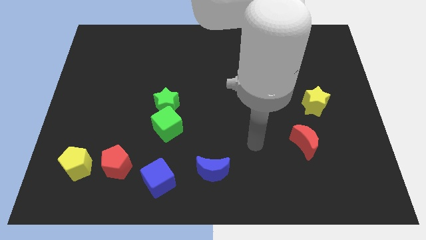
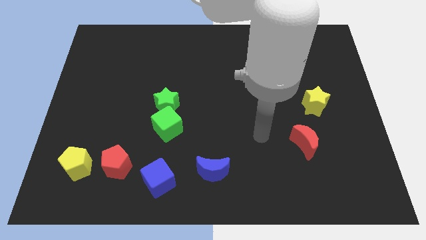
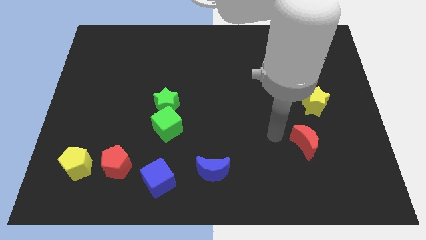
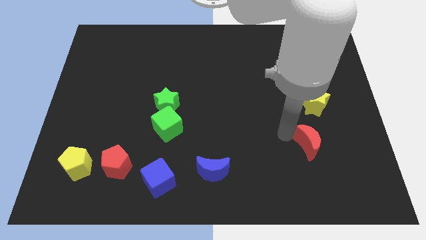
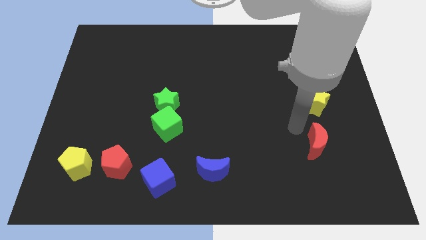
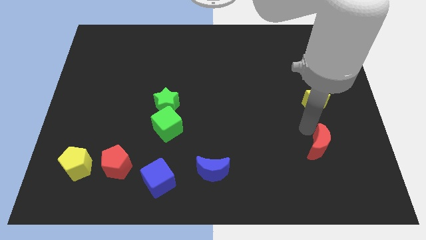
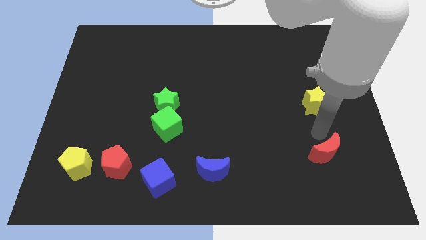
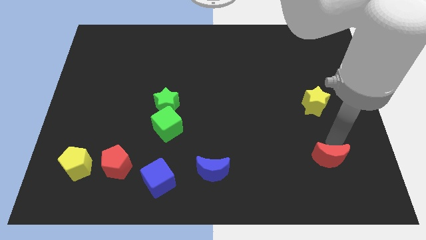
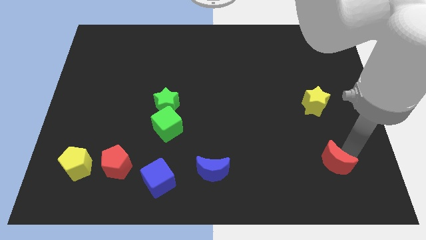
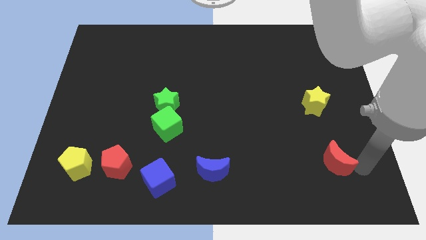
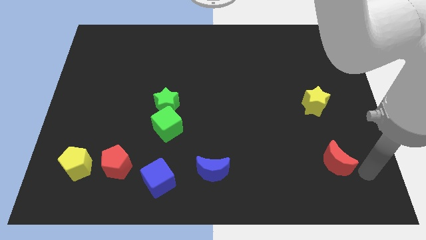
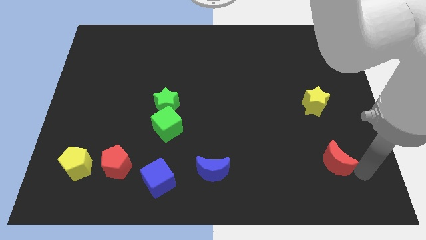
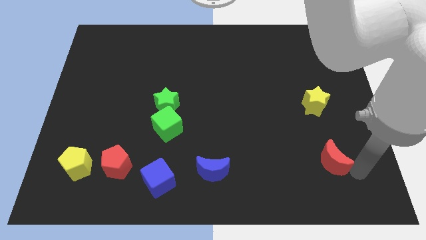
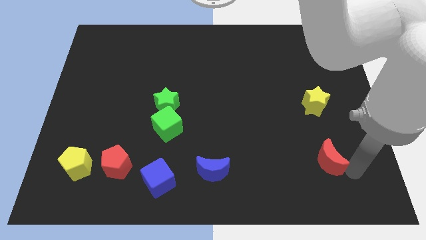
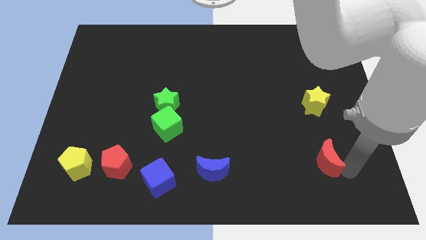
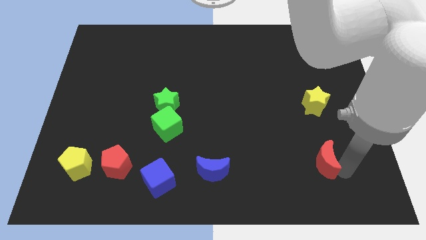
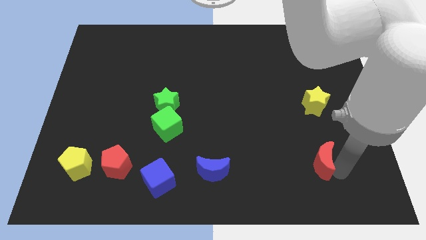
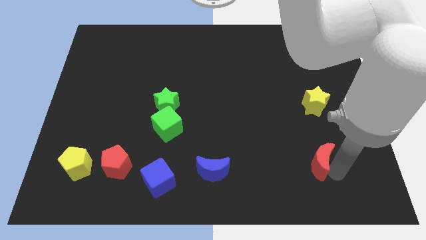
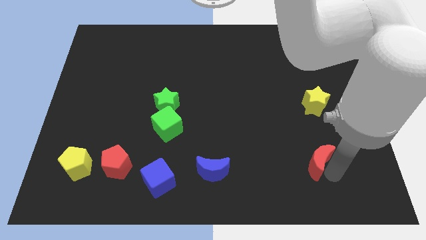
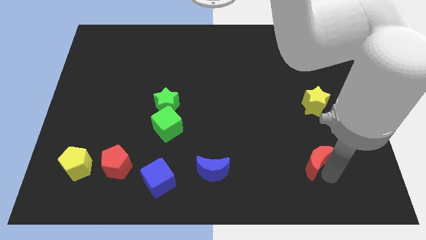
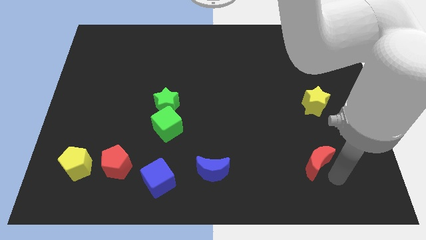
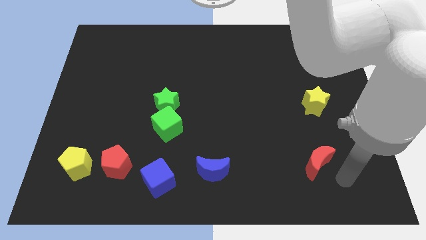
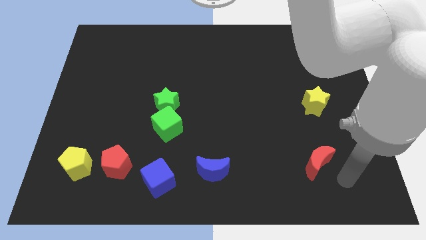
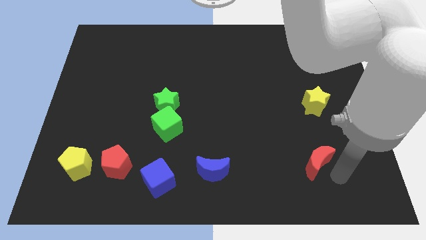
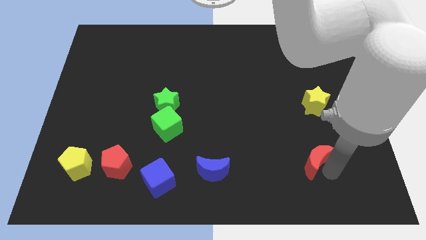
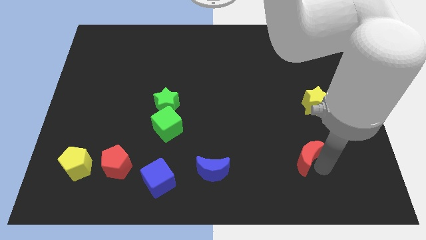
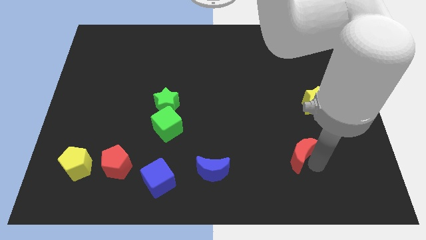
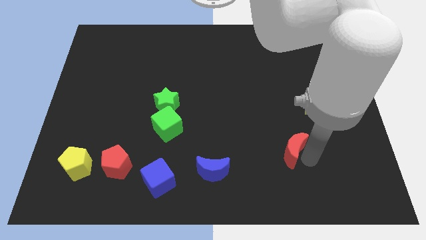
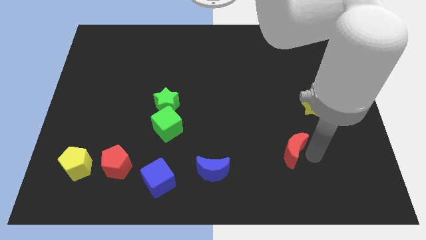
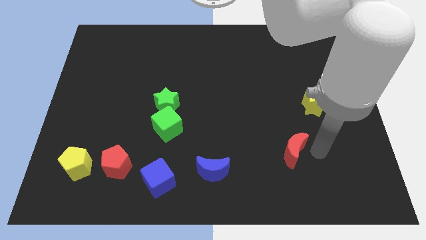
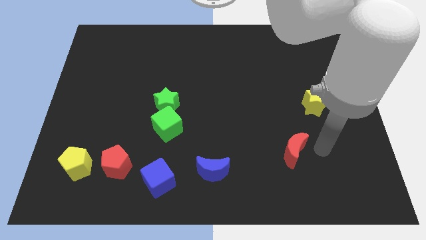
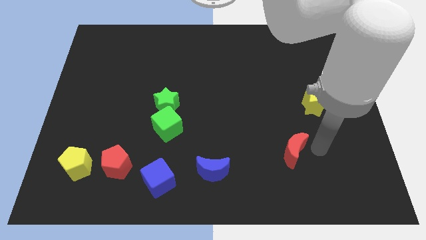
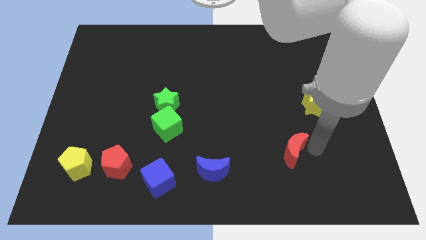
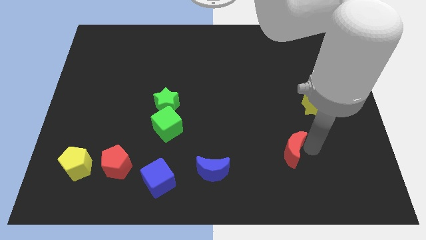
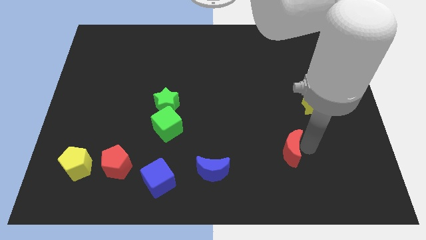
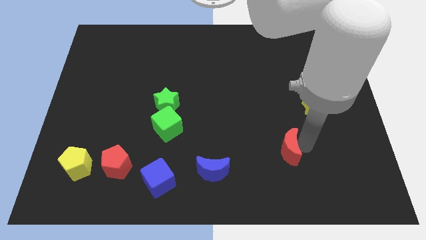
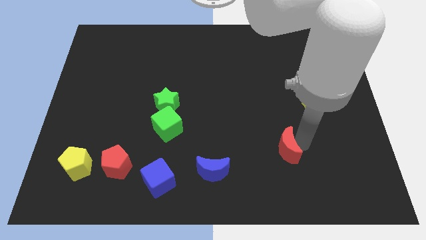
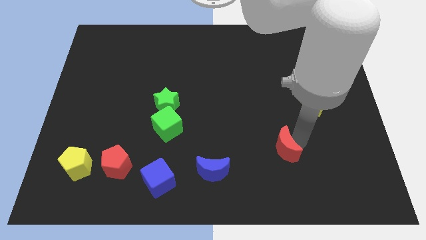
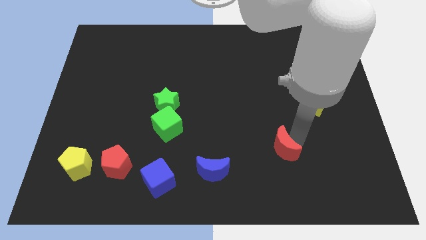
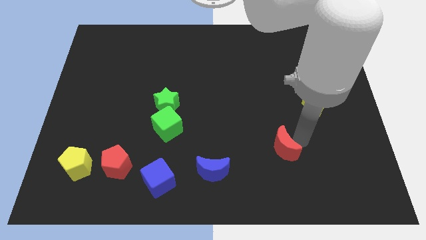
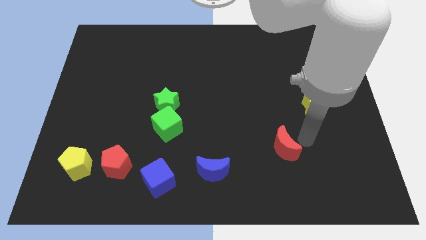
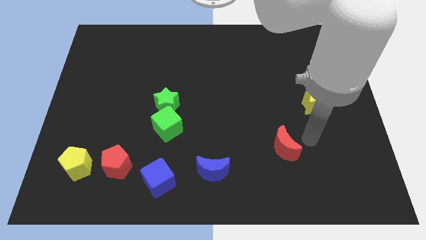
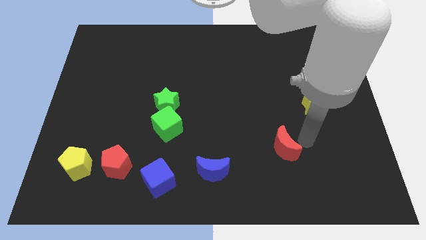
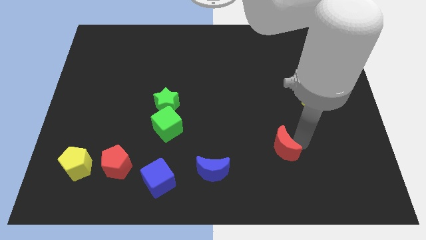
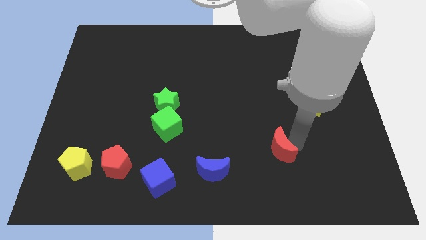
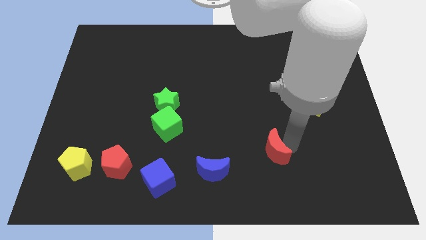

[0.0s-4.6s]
slightly move the red moon left

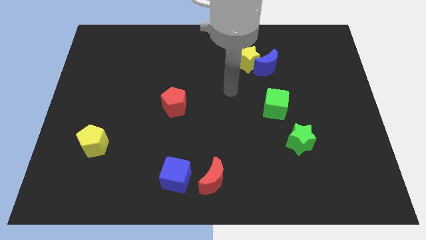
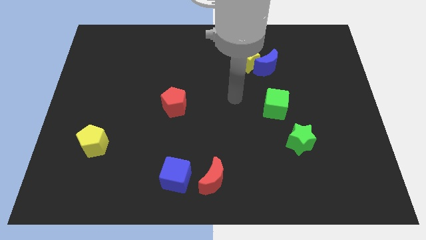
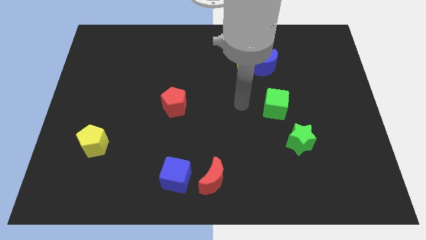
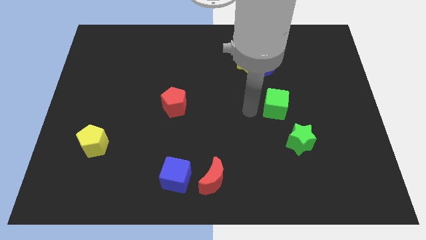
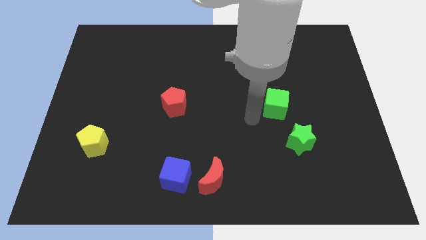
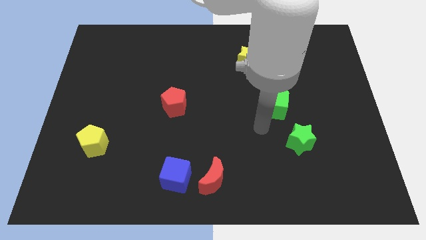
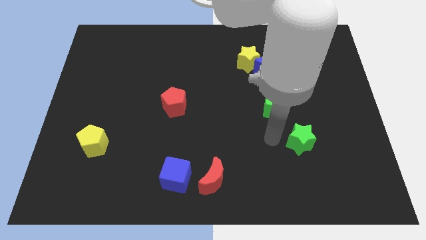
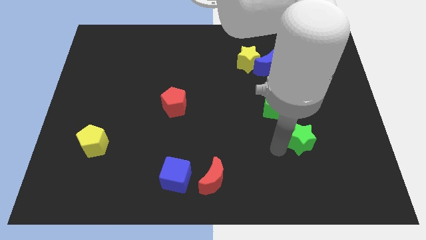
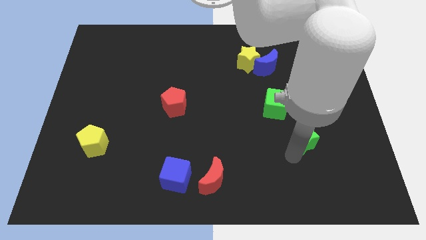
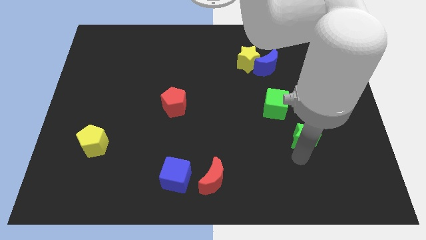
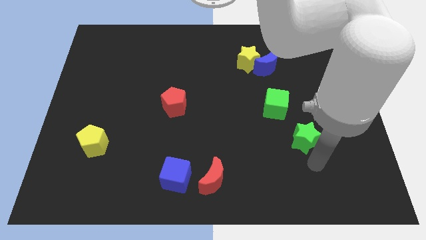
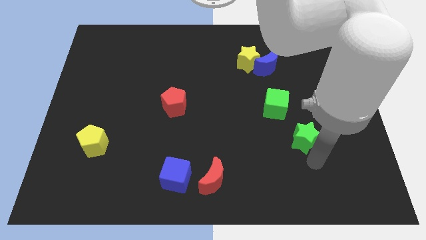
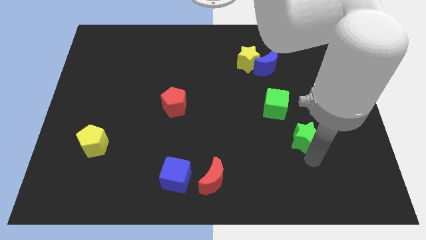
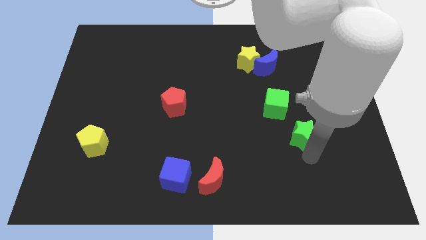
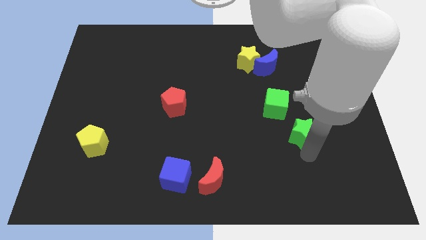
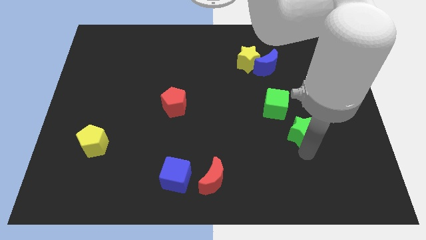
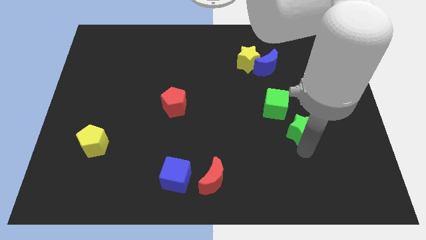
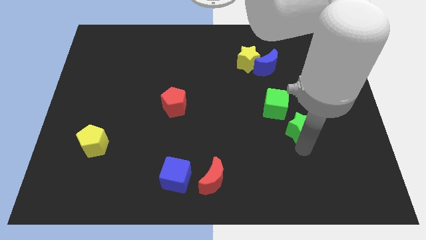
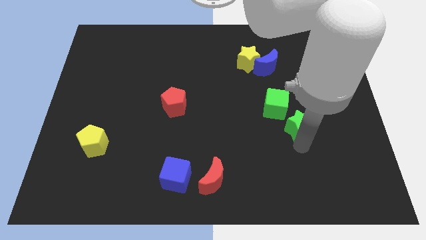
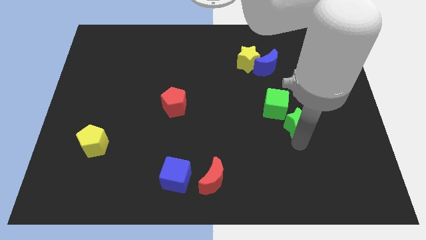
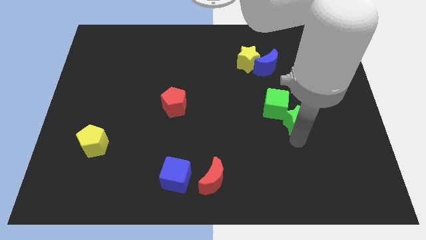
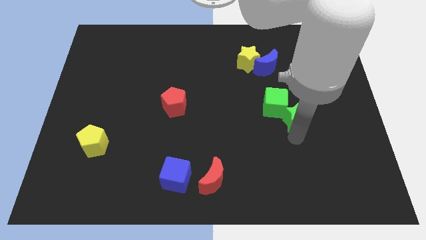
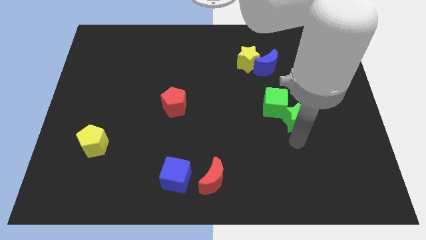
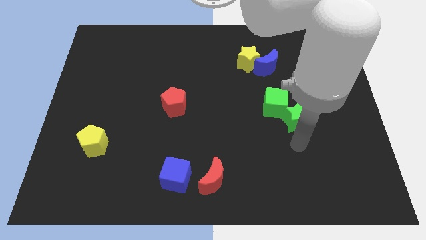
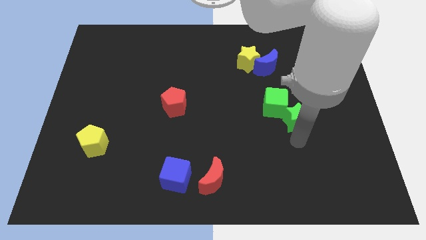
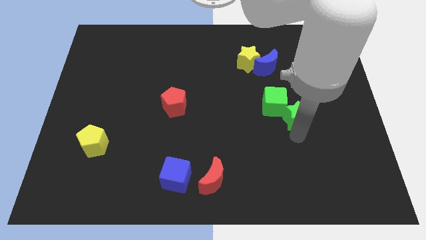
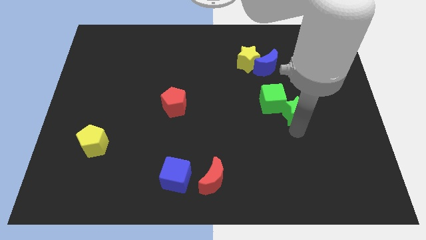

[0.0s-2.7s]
slightly push the green star upwards

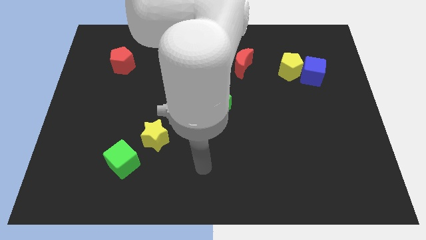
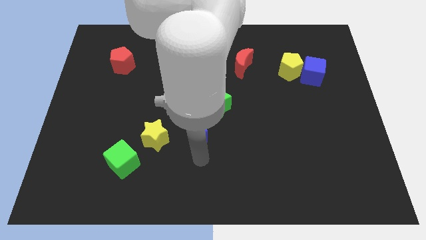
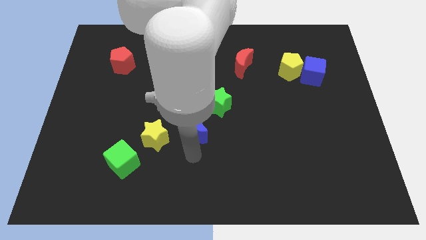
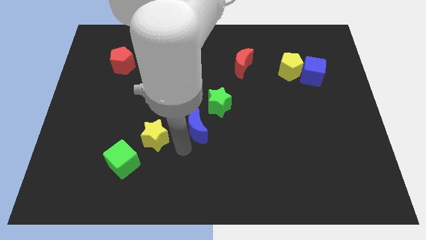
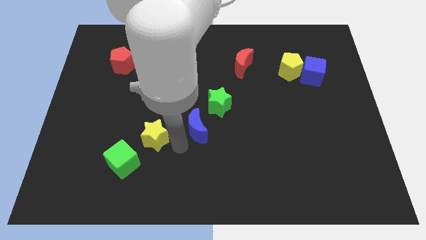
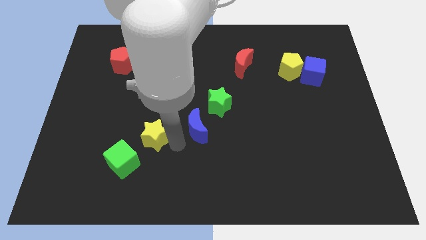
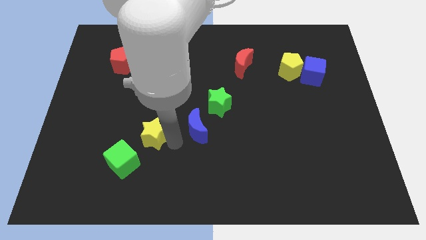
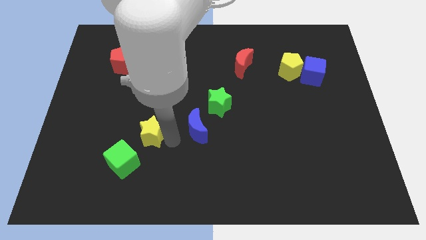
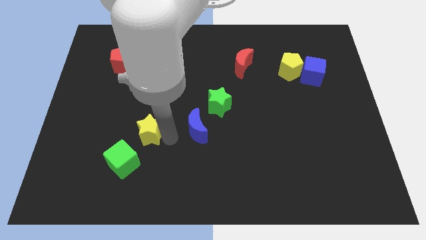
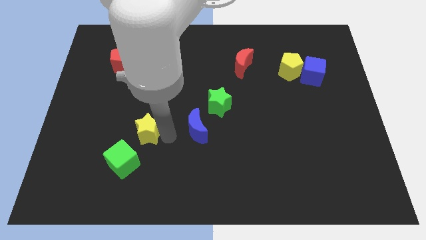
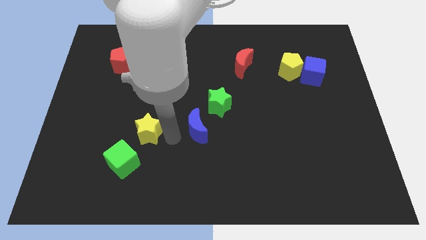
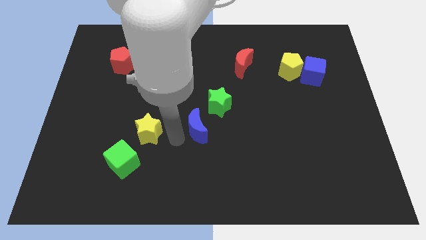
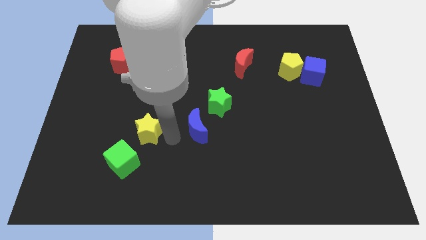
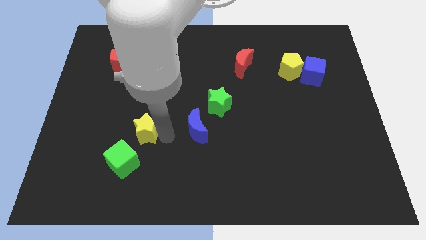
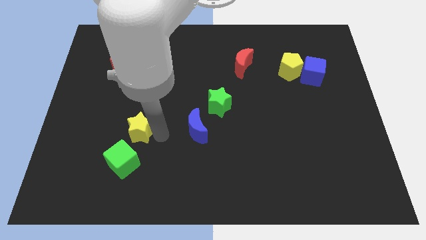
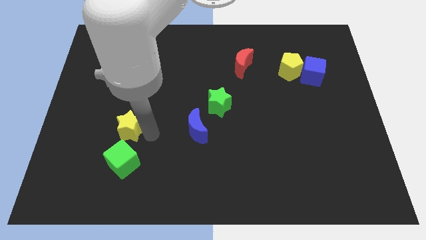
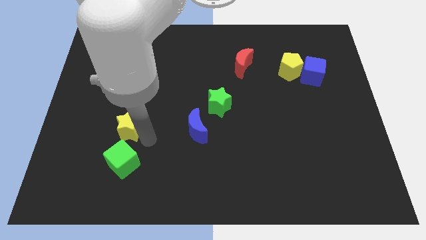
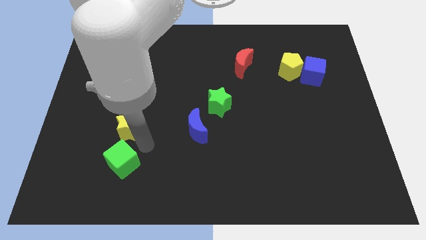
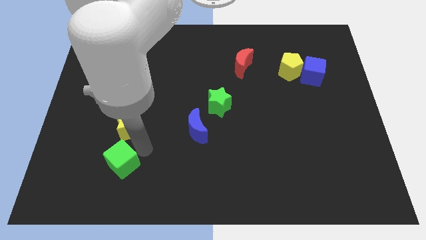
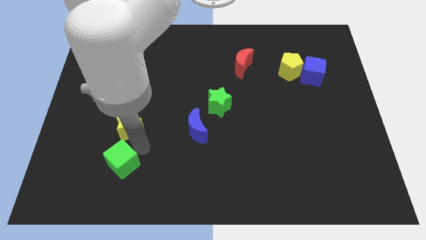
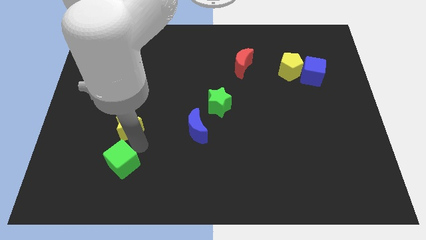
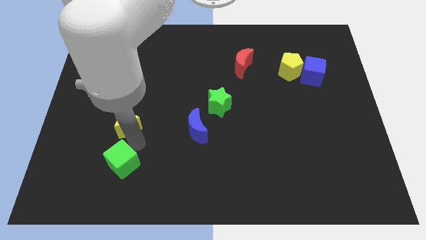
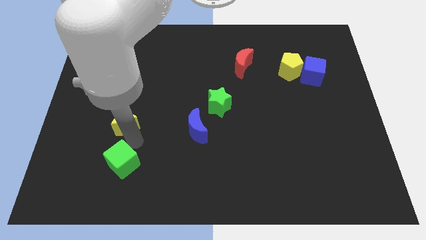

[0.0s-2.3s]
slightly push the yellow star up and then to the left
